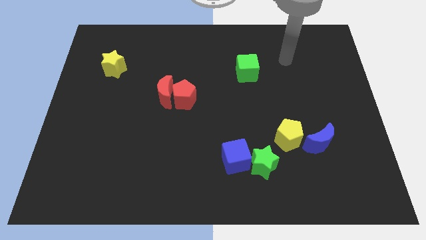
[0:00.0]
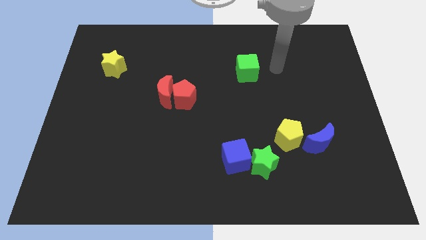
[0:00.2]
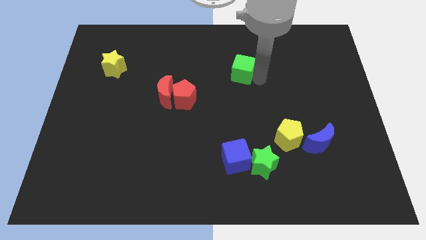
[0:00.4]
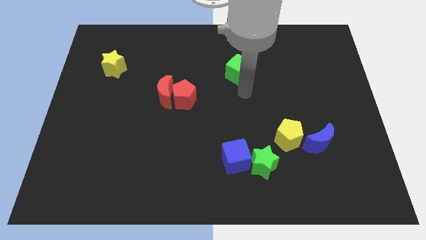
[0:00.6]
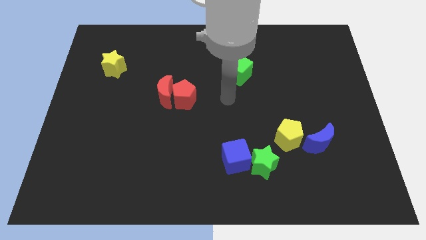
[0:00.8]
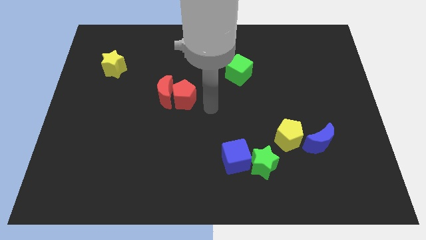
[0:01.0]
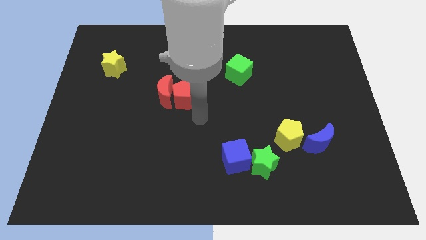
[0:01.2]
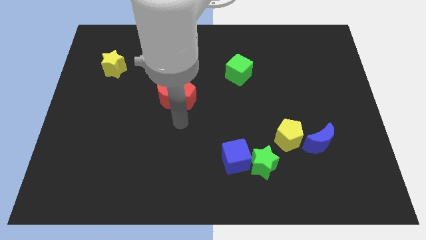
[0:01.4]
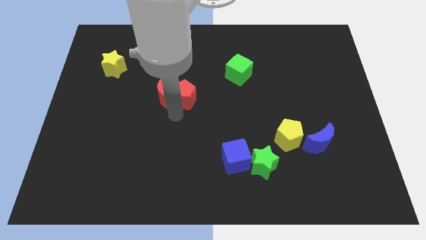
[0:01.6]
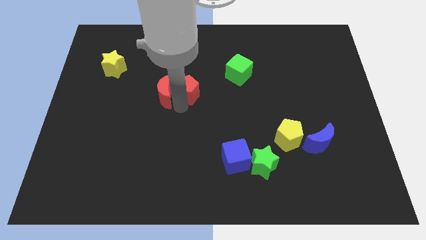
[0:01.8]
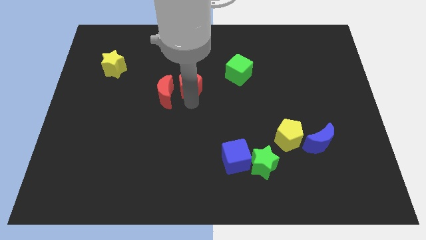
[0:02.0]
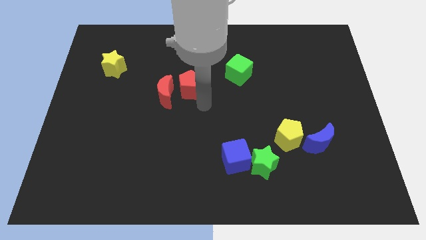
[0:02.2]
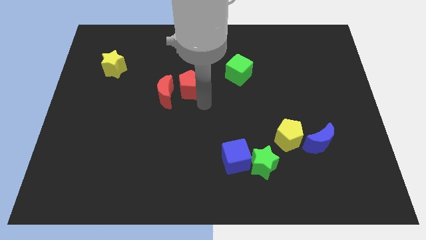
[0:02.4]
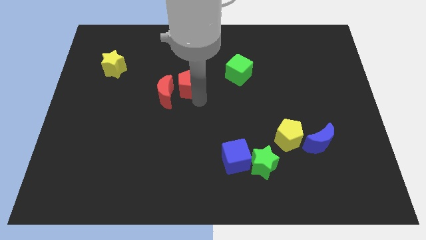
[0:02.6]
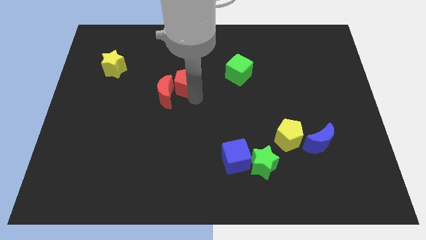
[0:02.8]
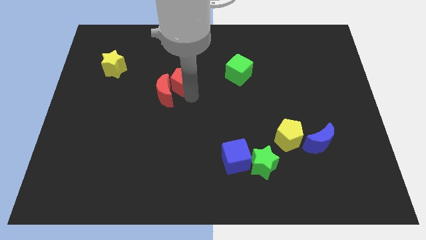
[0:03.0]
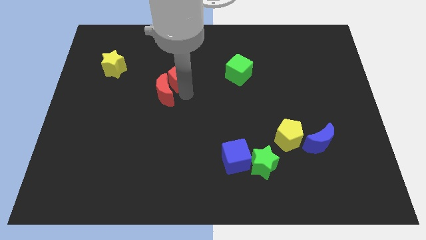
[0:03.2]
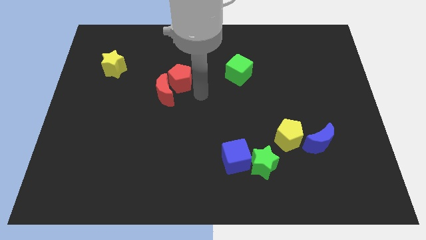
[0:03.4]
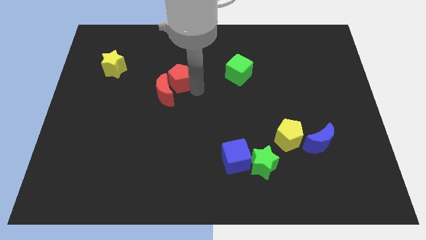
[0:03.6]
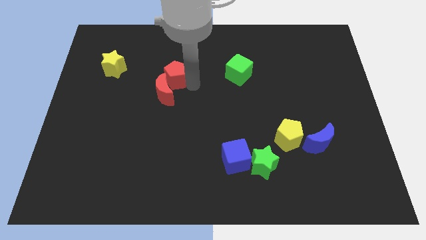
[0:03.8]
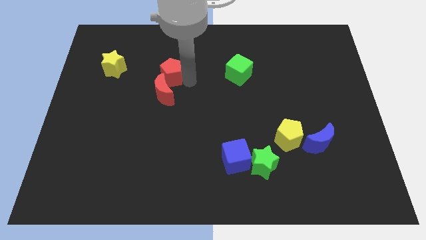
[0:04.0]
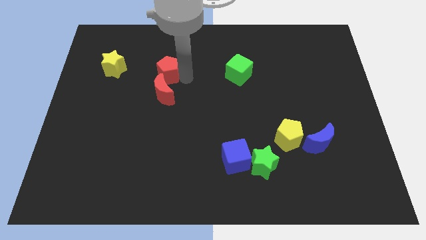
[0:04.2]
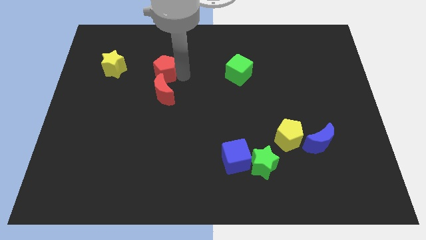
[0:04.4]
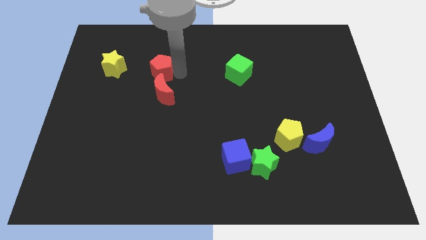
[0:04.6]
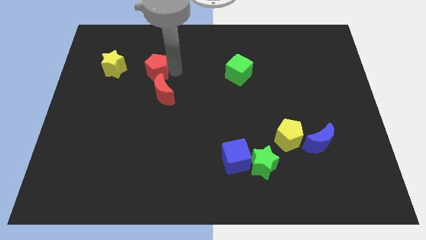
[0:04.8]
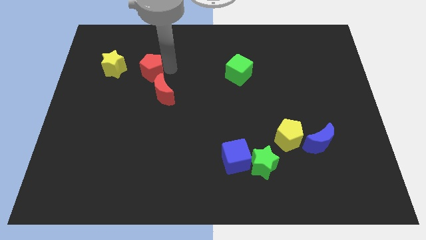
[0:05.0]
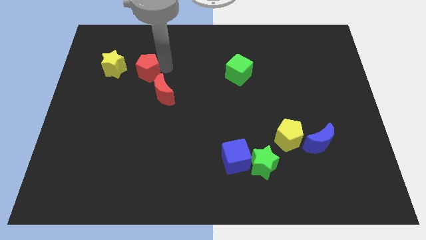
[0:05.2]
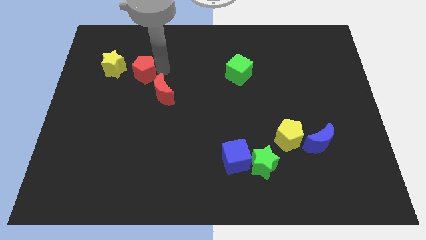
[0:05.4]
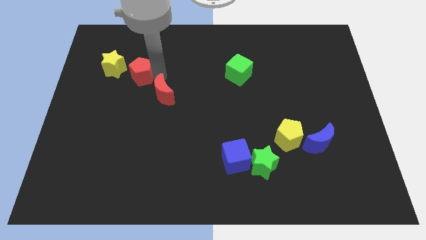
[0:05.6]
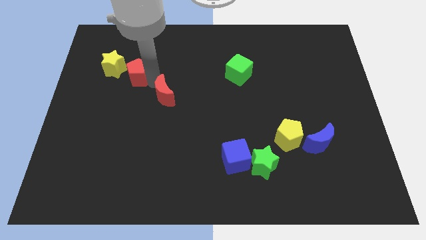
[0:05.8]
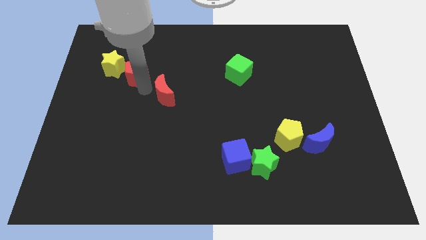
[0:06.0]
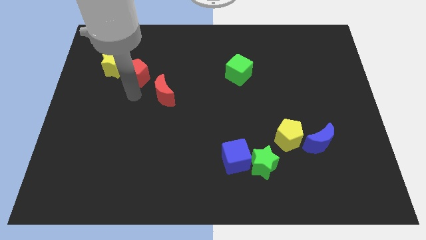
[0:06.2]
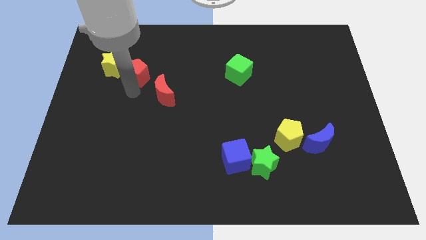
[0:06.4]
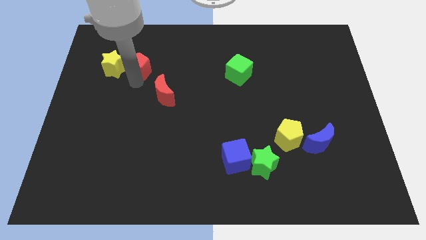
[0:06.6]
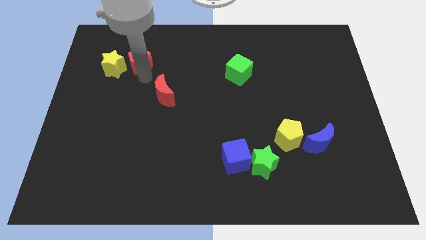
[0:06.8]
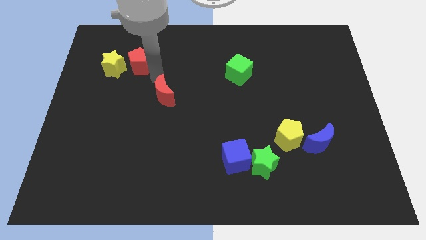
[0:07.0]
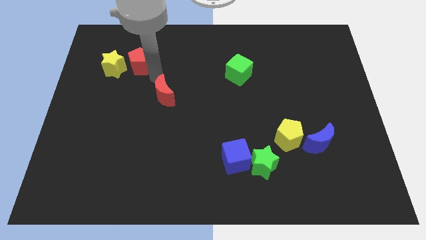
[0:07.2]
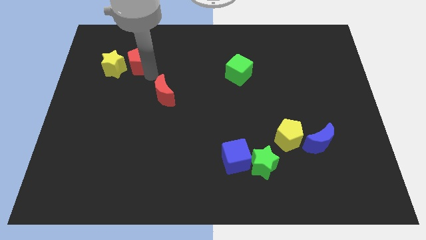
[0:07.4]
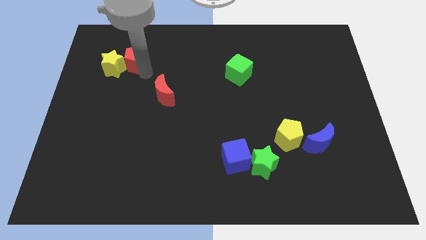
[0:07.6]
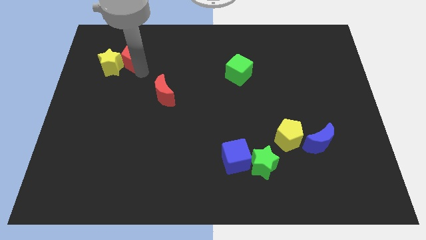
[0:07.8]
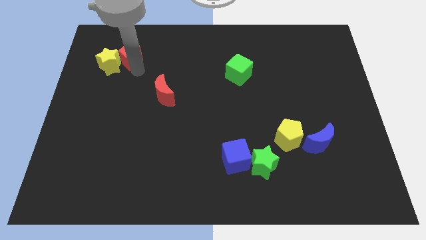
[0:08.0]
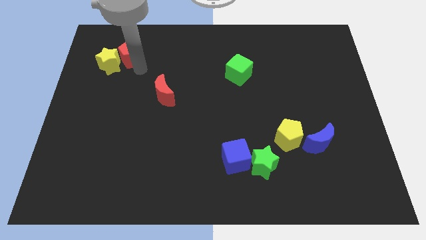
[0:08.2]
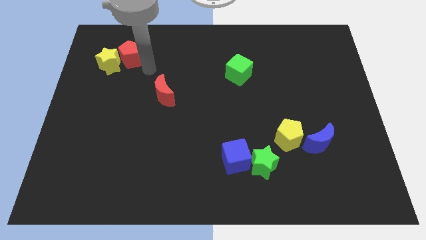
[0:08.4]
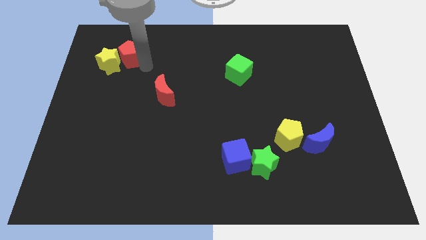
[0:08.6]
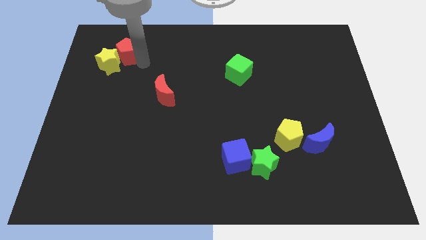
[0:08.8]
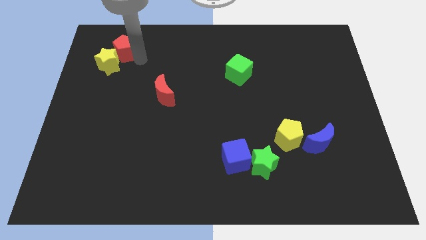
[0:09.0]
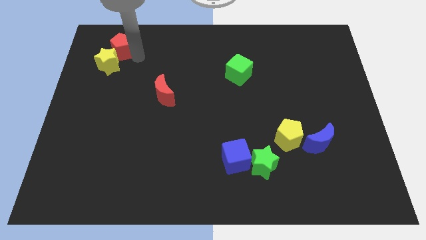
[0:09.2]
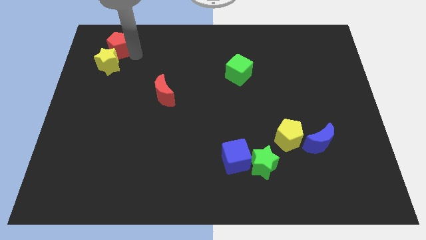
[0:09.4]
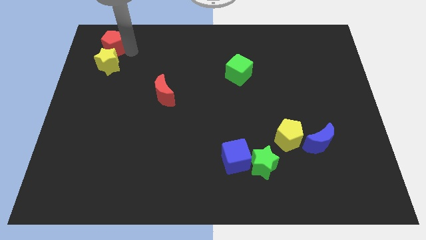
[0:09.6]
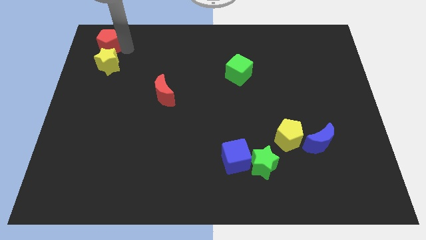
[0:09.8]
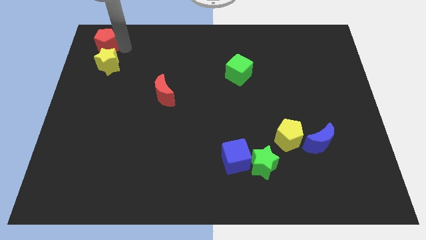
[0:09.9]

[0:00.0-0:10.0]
slide the red pentagon to the top left of the board
